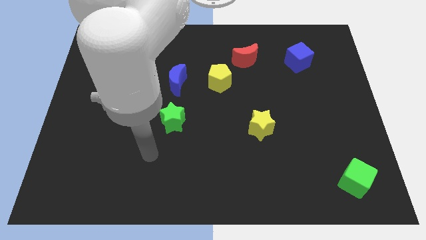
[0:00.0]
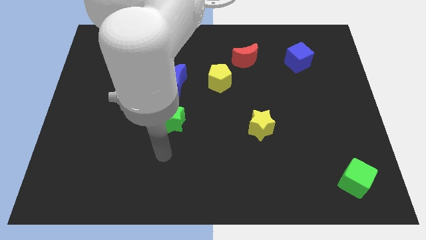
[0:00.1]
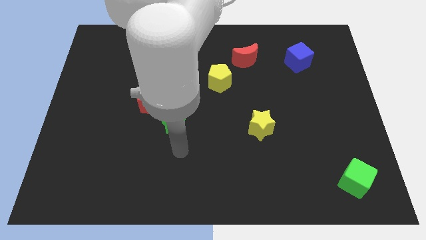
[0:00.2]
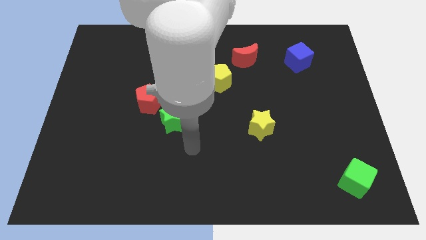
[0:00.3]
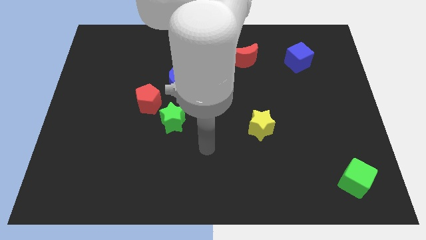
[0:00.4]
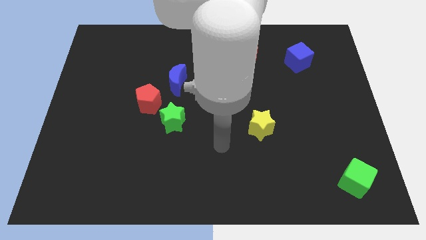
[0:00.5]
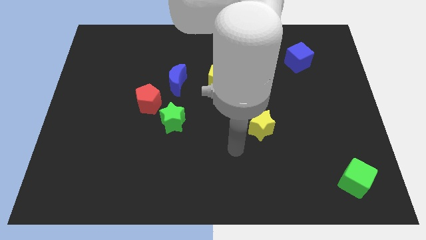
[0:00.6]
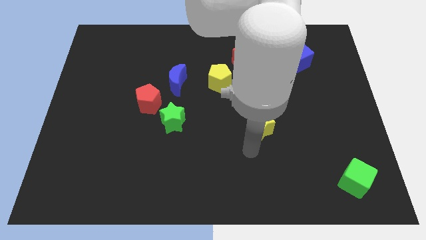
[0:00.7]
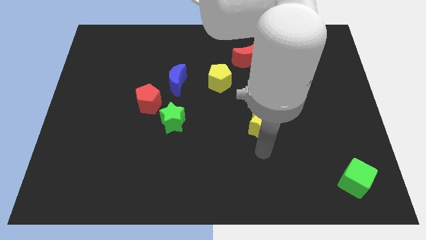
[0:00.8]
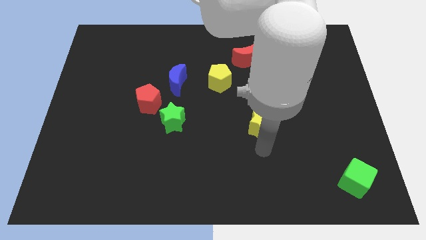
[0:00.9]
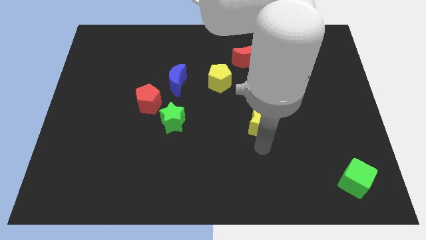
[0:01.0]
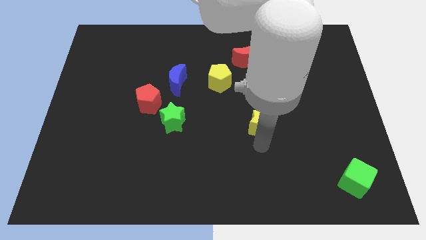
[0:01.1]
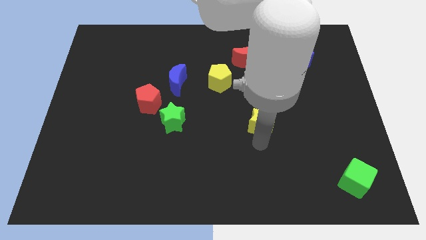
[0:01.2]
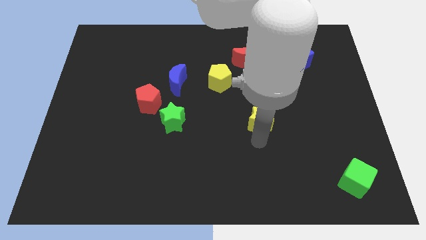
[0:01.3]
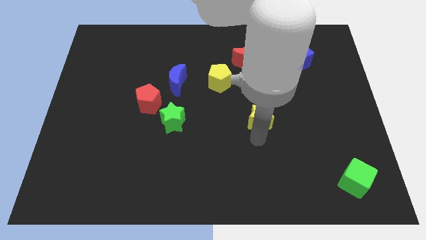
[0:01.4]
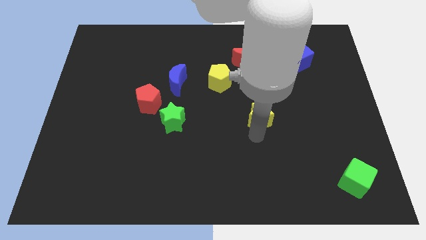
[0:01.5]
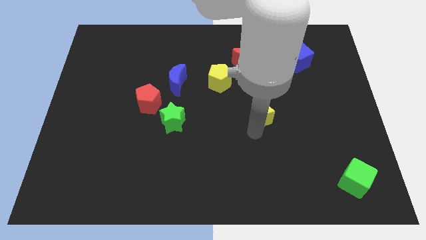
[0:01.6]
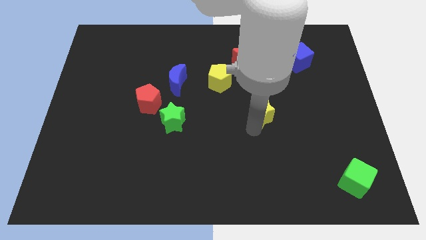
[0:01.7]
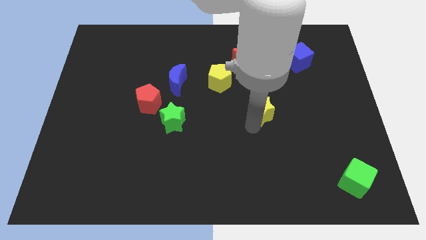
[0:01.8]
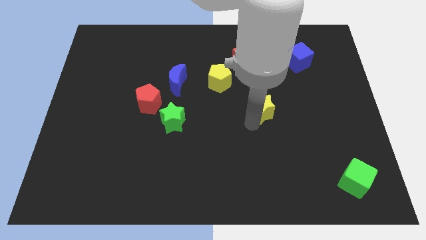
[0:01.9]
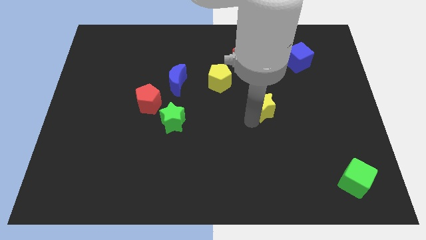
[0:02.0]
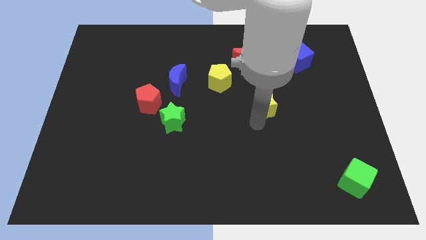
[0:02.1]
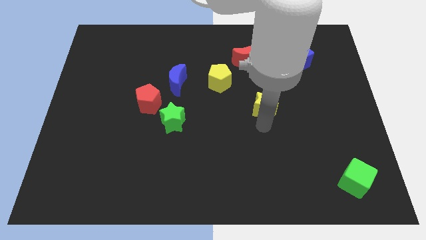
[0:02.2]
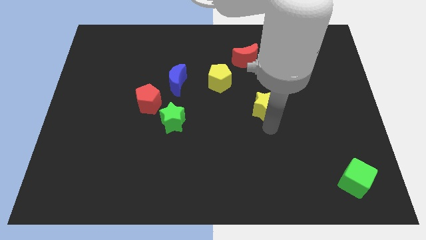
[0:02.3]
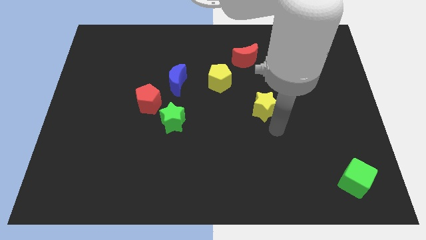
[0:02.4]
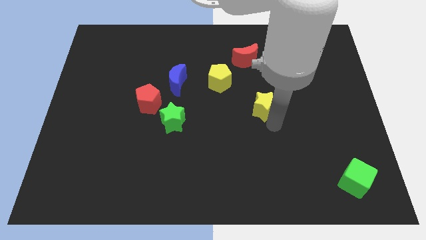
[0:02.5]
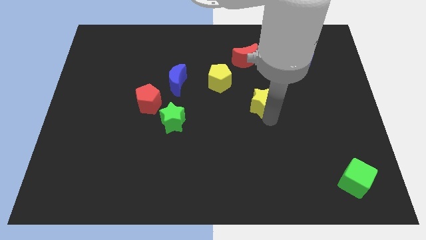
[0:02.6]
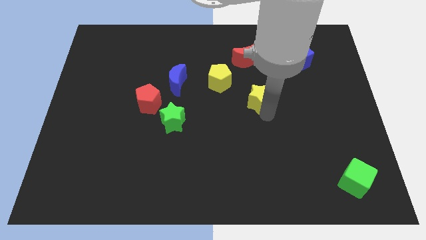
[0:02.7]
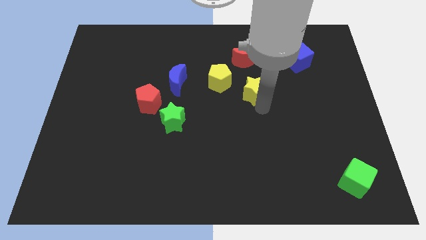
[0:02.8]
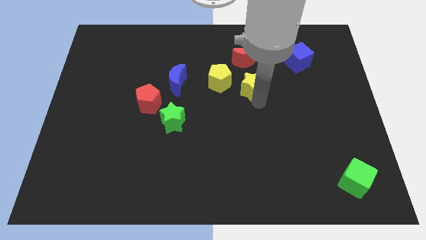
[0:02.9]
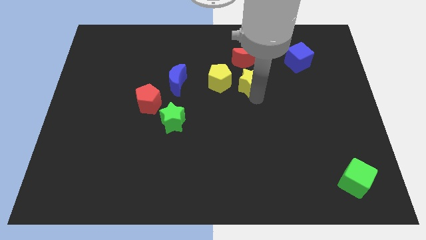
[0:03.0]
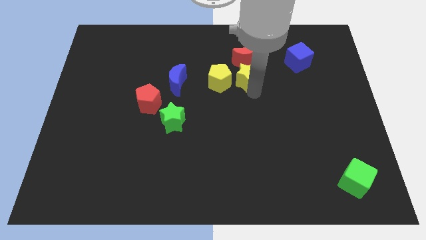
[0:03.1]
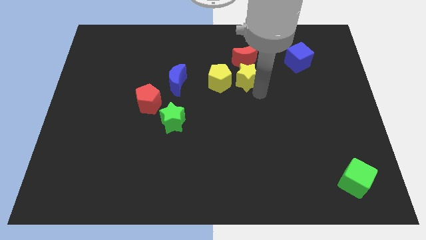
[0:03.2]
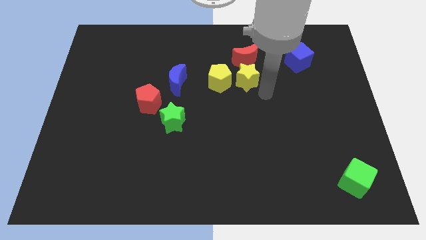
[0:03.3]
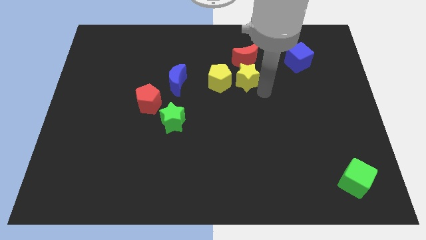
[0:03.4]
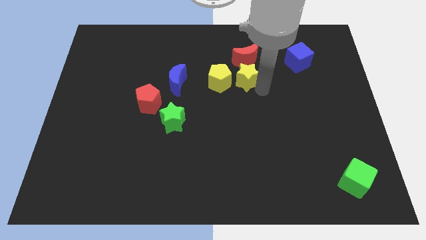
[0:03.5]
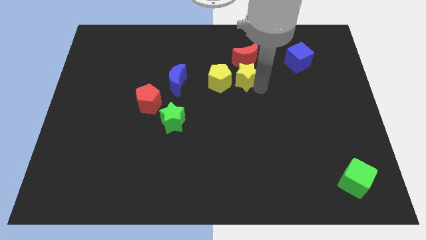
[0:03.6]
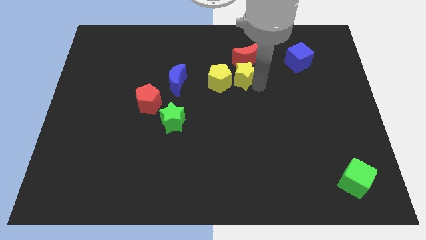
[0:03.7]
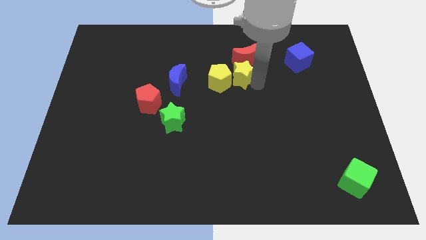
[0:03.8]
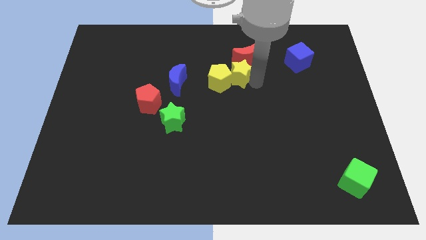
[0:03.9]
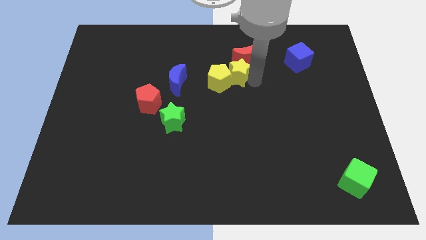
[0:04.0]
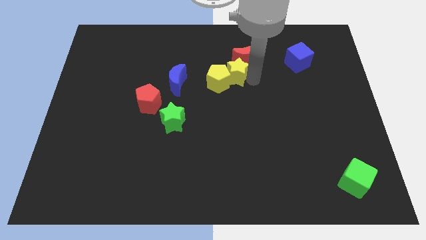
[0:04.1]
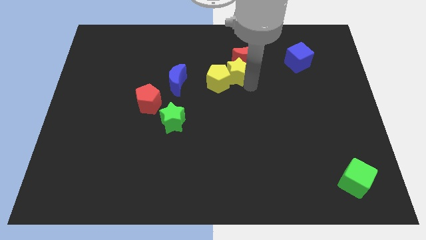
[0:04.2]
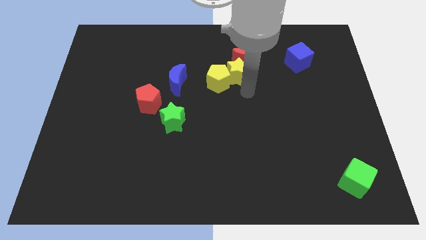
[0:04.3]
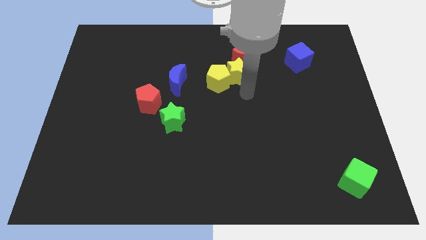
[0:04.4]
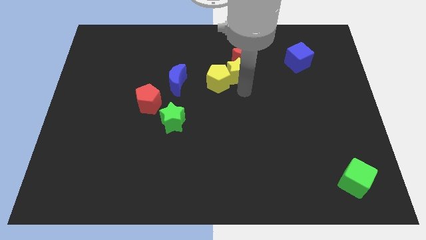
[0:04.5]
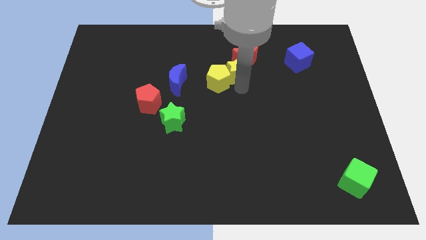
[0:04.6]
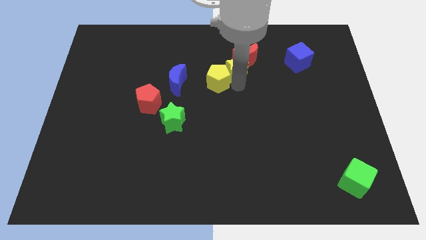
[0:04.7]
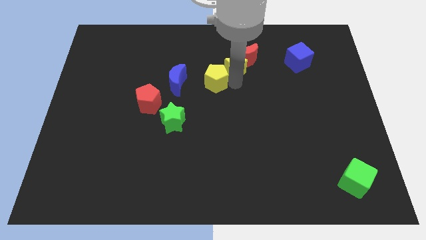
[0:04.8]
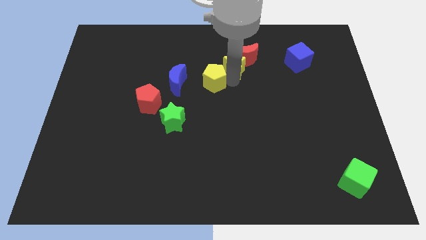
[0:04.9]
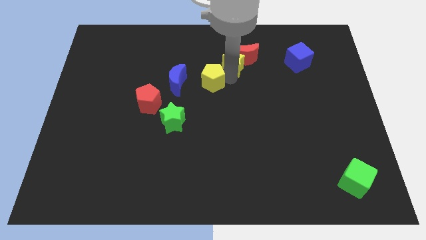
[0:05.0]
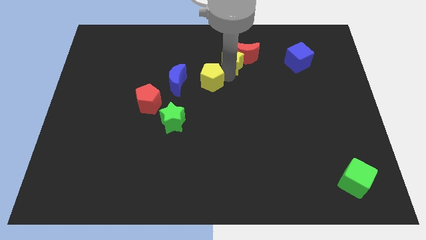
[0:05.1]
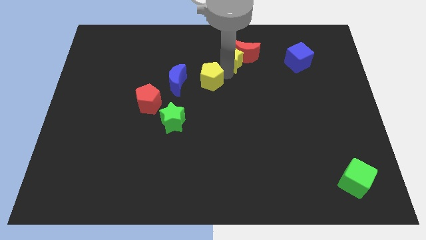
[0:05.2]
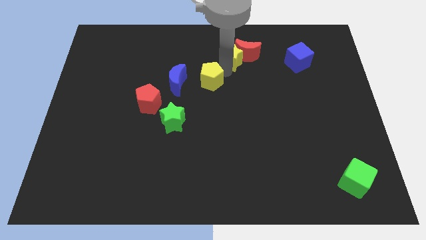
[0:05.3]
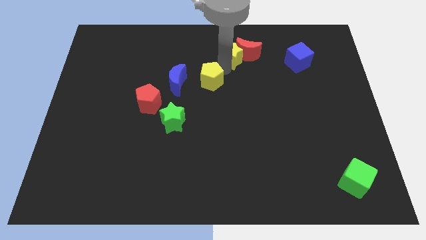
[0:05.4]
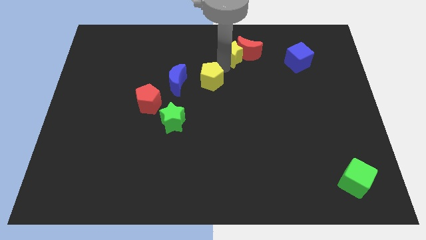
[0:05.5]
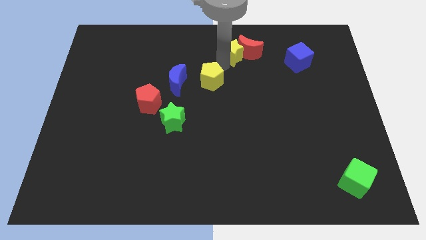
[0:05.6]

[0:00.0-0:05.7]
push the yellow star to the top

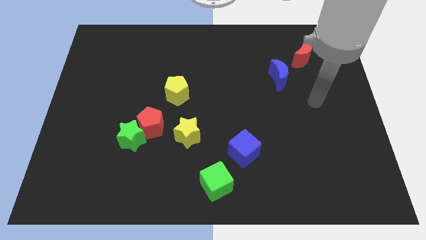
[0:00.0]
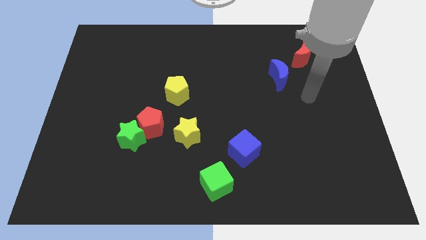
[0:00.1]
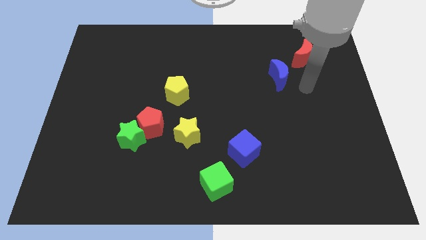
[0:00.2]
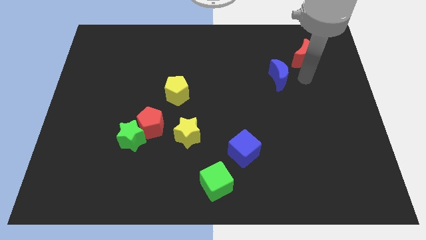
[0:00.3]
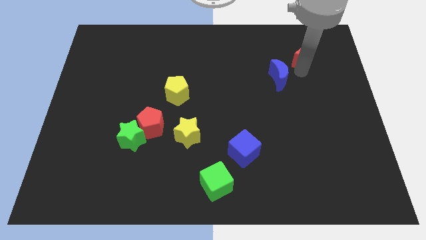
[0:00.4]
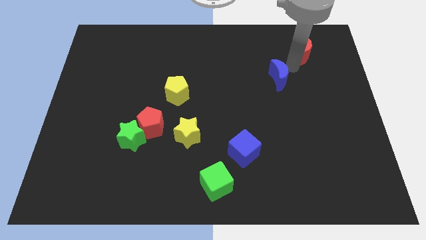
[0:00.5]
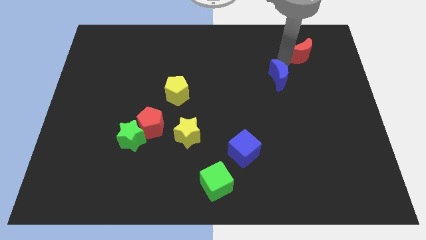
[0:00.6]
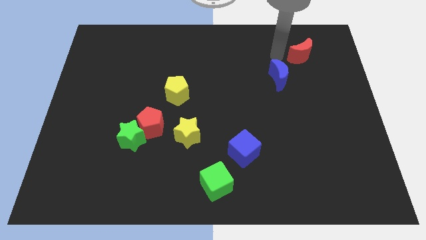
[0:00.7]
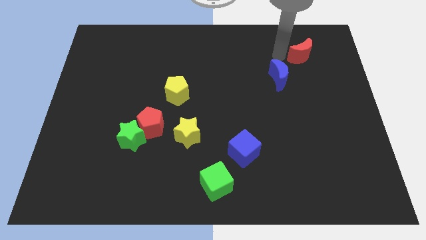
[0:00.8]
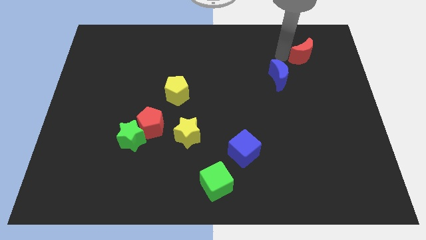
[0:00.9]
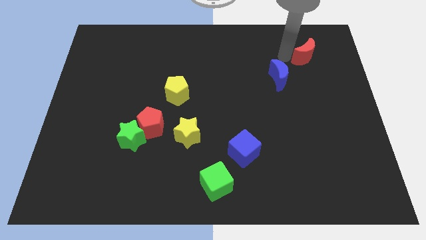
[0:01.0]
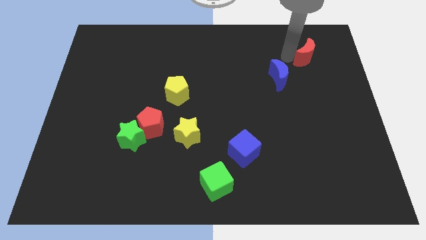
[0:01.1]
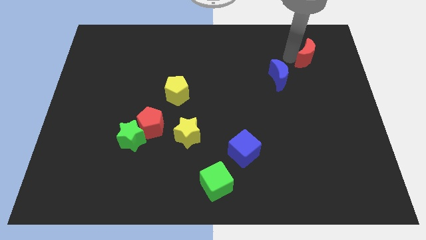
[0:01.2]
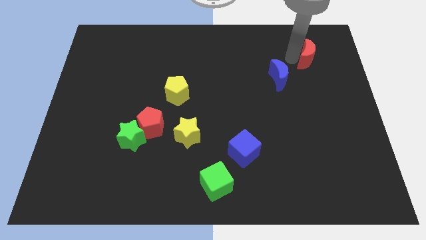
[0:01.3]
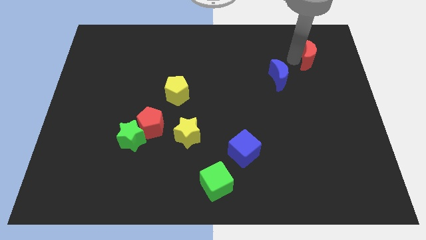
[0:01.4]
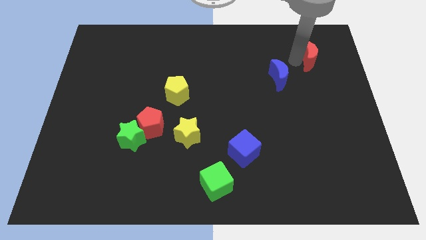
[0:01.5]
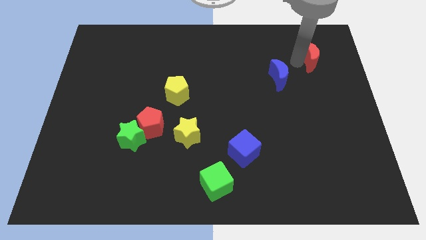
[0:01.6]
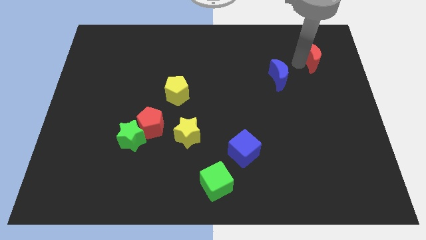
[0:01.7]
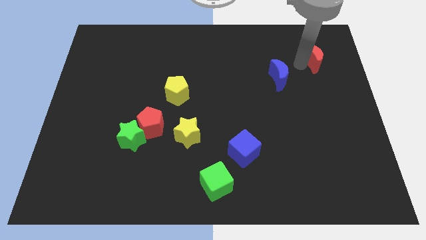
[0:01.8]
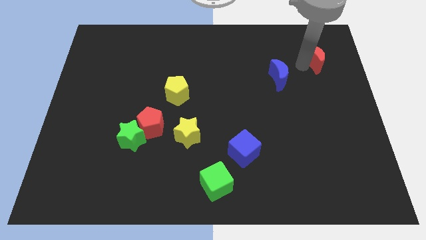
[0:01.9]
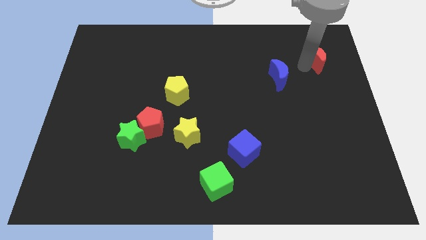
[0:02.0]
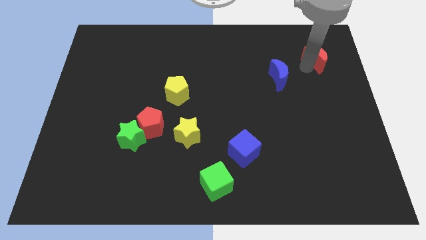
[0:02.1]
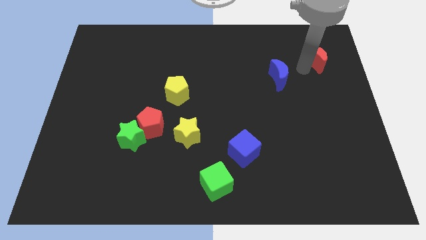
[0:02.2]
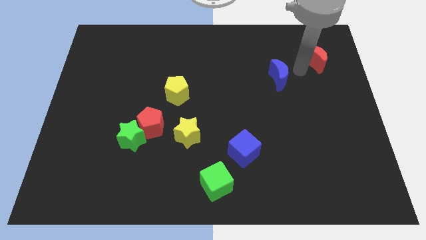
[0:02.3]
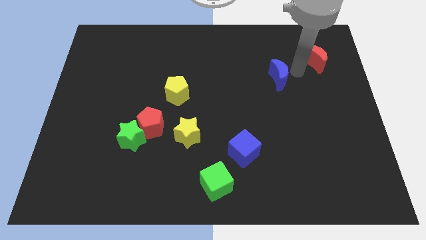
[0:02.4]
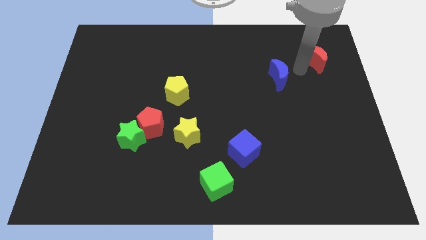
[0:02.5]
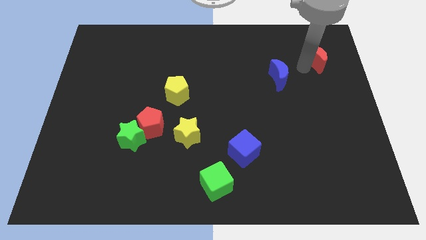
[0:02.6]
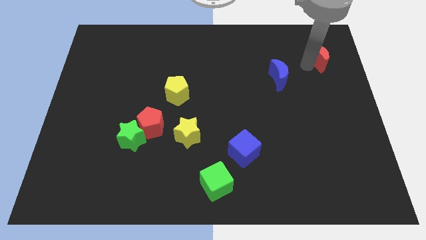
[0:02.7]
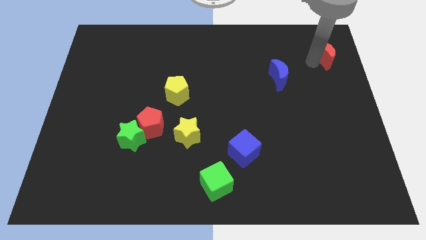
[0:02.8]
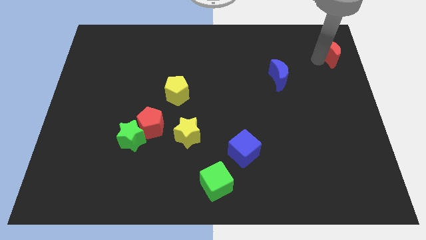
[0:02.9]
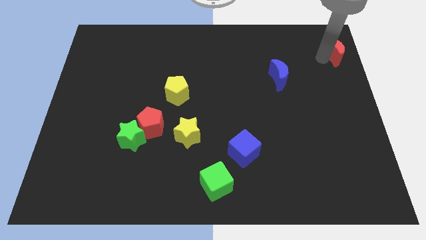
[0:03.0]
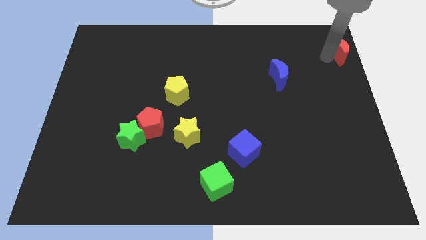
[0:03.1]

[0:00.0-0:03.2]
slide the red moon to the top right corner
